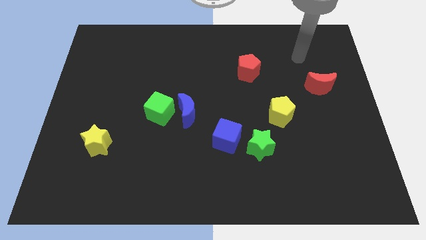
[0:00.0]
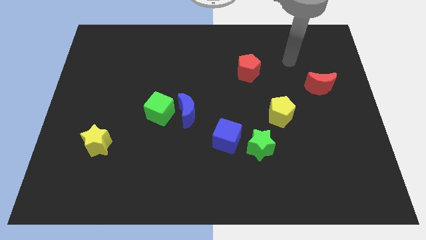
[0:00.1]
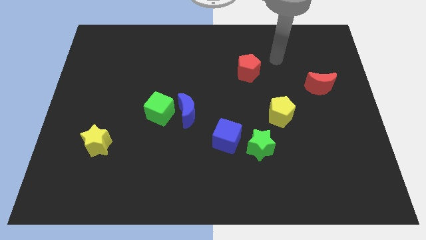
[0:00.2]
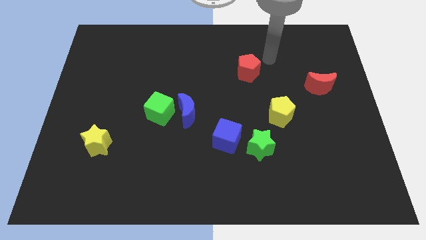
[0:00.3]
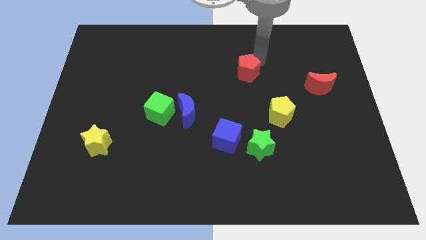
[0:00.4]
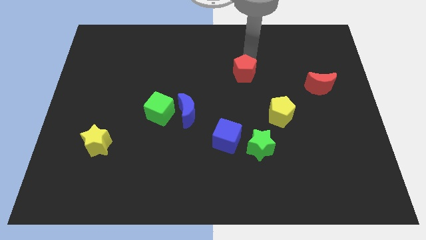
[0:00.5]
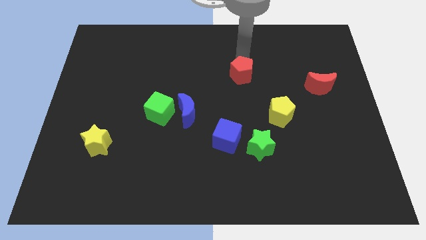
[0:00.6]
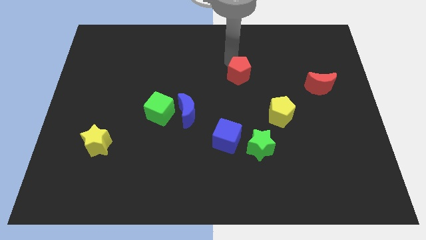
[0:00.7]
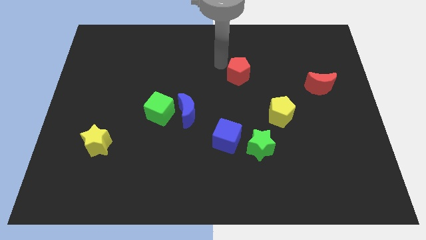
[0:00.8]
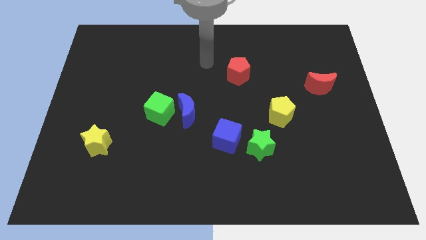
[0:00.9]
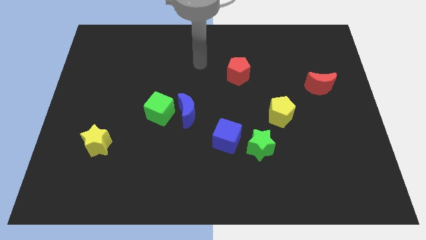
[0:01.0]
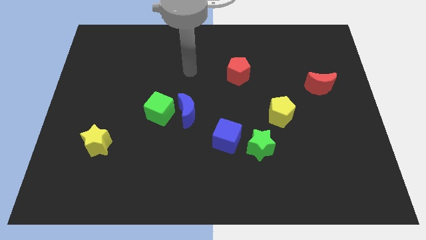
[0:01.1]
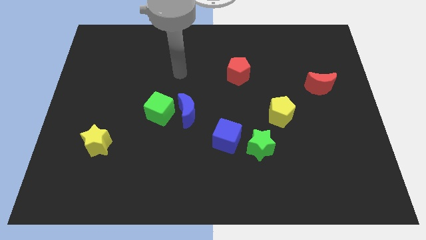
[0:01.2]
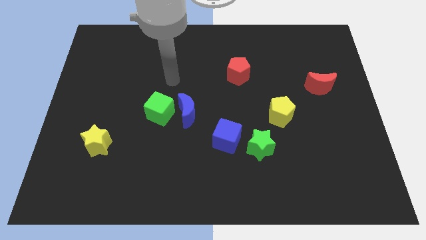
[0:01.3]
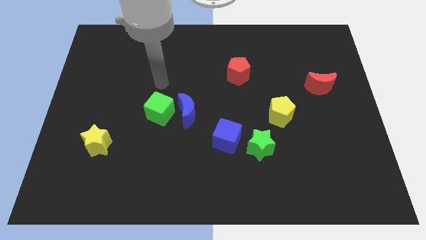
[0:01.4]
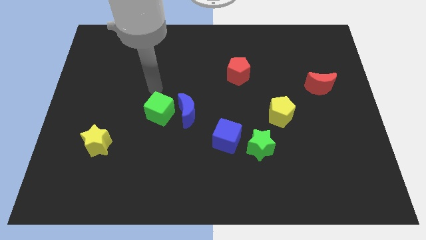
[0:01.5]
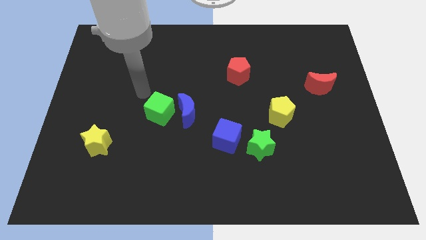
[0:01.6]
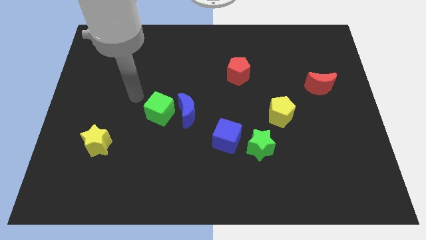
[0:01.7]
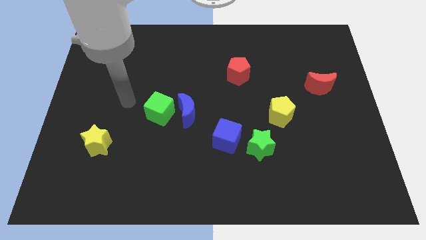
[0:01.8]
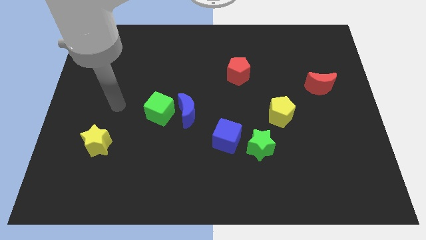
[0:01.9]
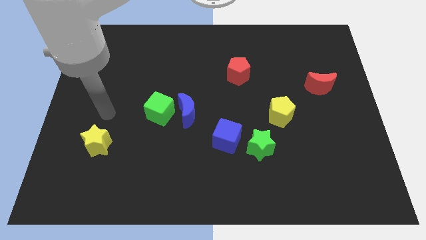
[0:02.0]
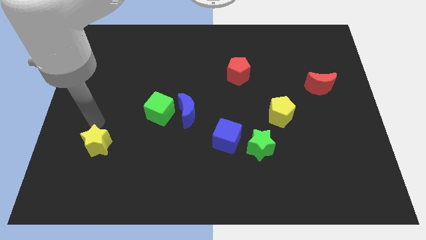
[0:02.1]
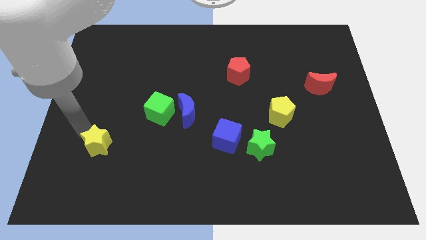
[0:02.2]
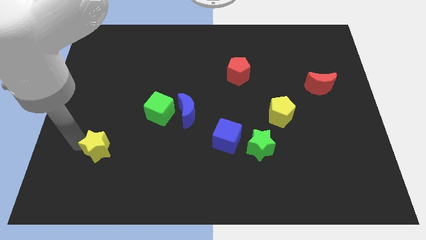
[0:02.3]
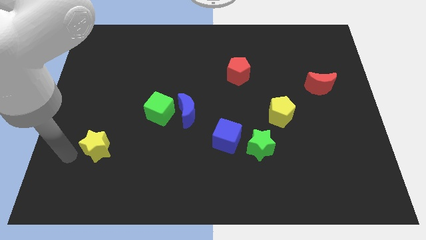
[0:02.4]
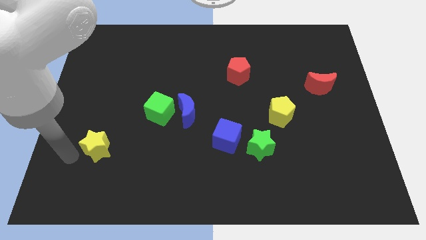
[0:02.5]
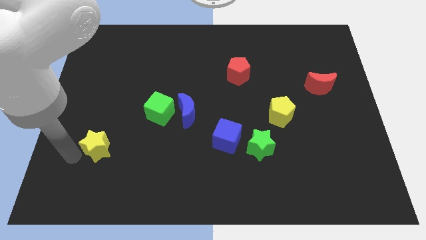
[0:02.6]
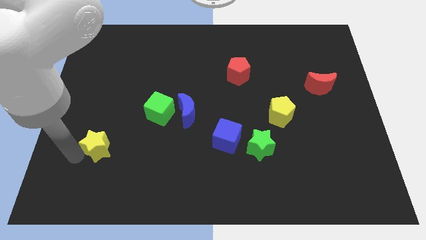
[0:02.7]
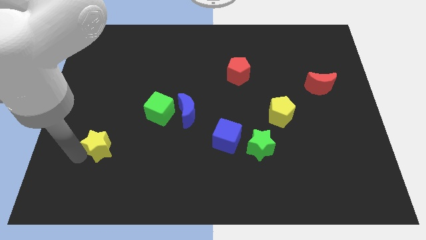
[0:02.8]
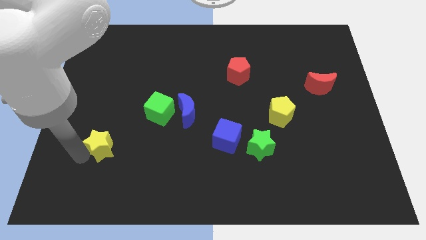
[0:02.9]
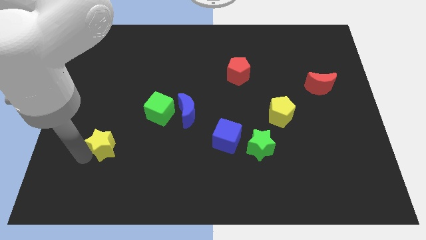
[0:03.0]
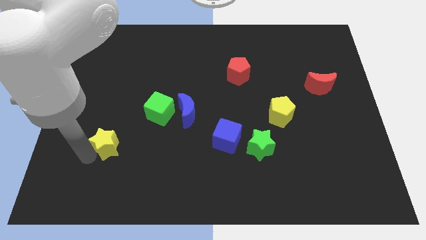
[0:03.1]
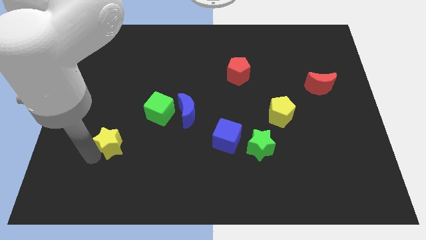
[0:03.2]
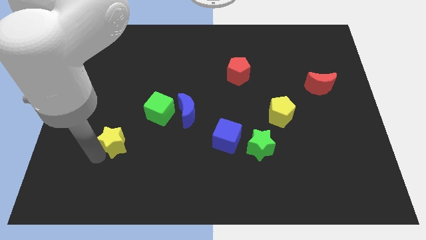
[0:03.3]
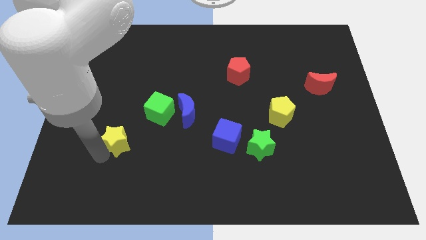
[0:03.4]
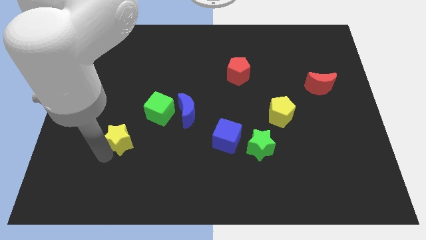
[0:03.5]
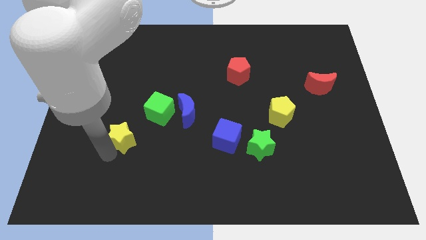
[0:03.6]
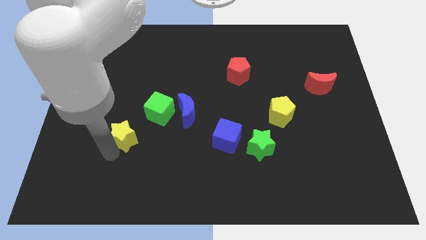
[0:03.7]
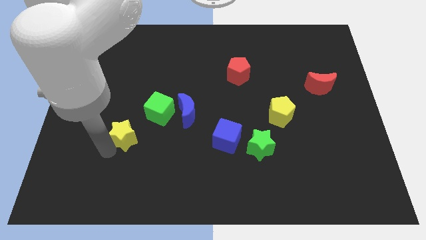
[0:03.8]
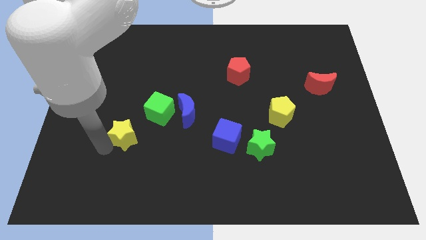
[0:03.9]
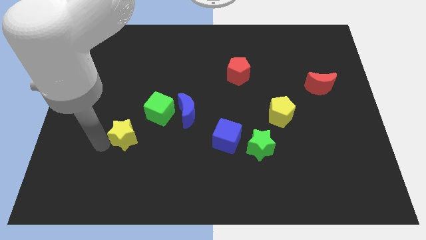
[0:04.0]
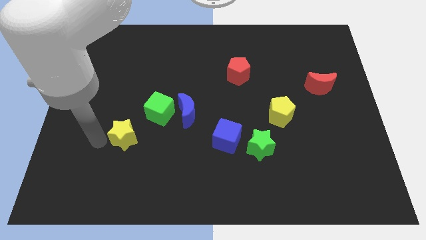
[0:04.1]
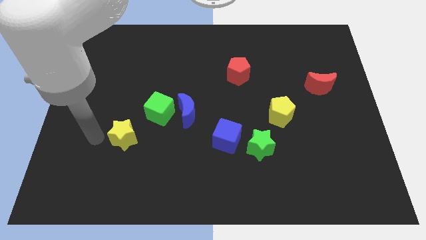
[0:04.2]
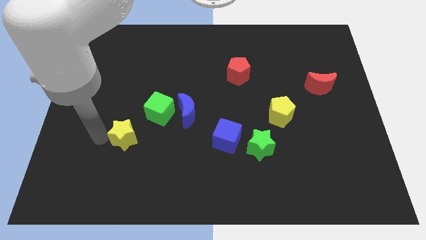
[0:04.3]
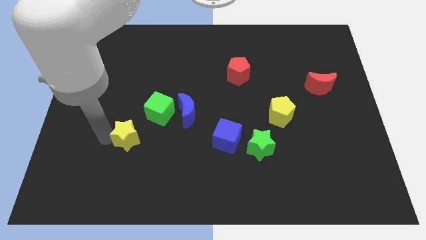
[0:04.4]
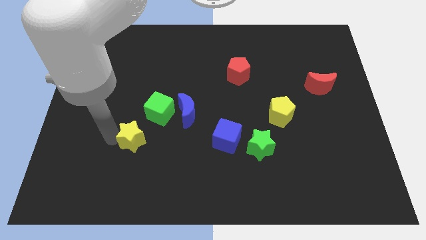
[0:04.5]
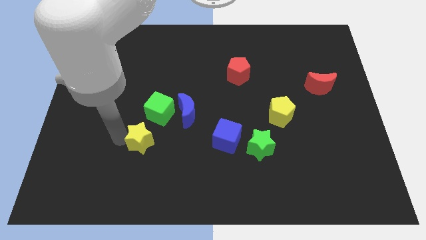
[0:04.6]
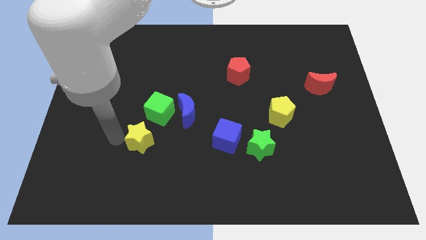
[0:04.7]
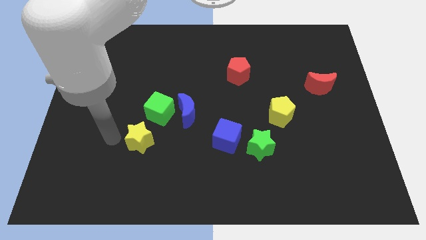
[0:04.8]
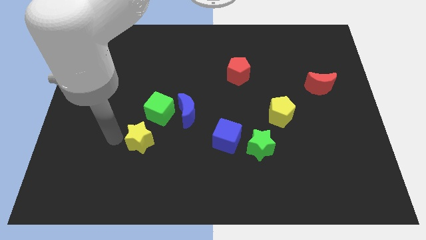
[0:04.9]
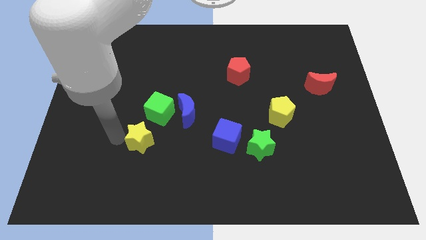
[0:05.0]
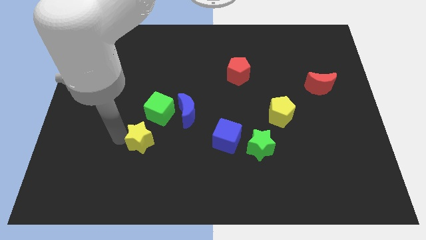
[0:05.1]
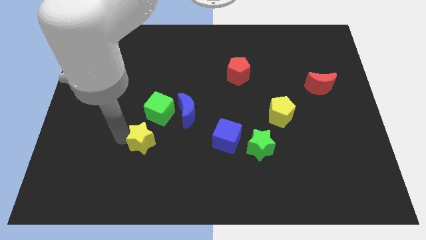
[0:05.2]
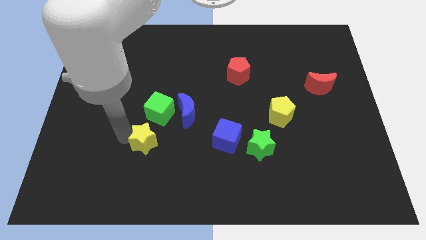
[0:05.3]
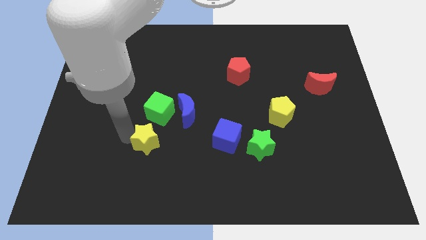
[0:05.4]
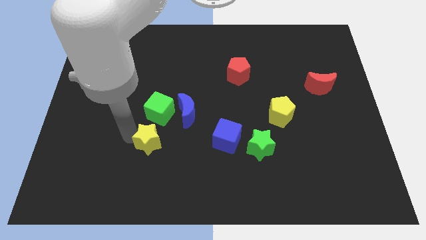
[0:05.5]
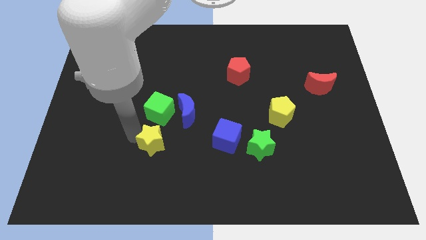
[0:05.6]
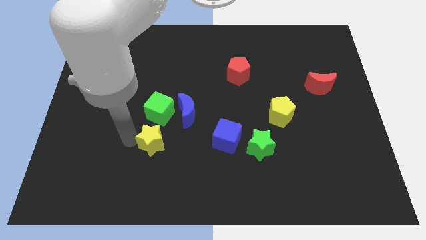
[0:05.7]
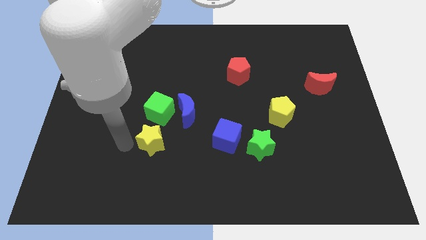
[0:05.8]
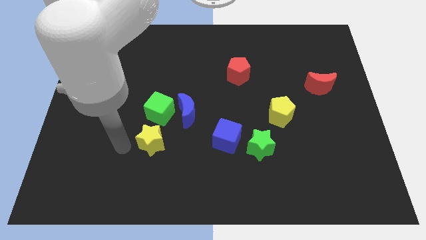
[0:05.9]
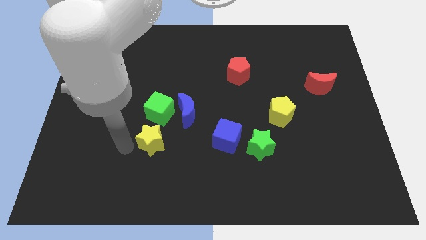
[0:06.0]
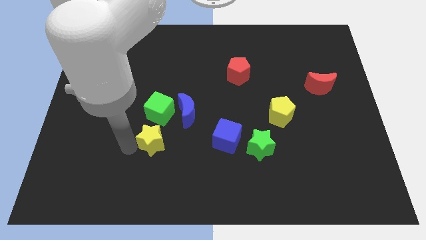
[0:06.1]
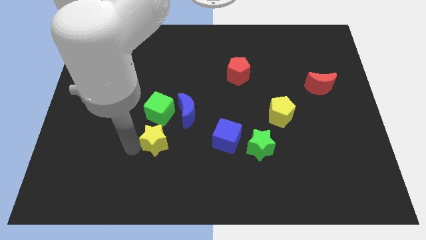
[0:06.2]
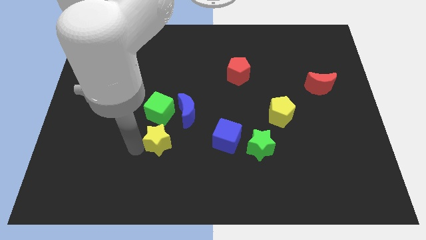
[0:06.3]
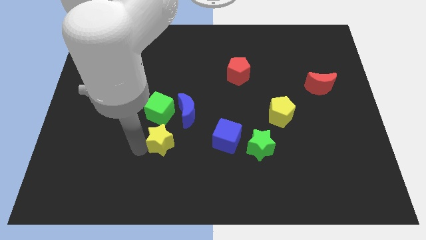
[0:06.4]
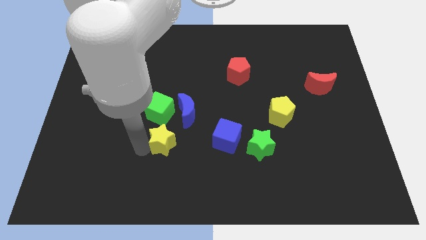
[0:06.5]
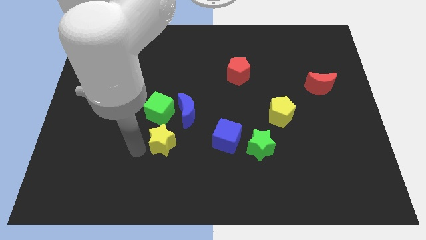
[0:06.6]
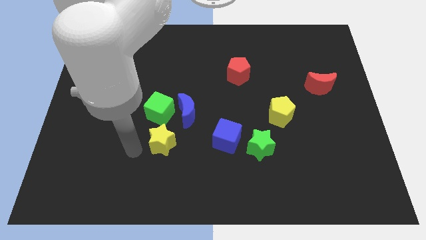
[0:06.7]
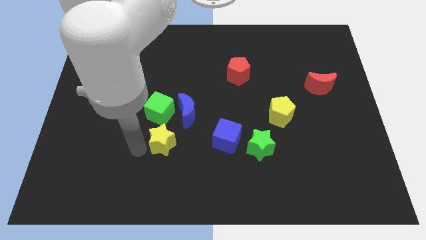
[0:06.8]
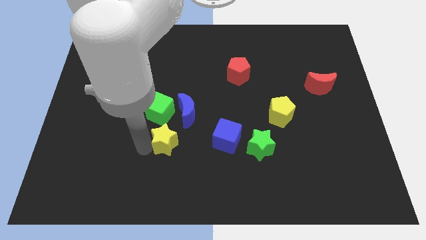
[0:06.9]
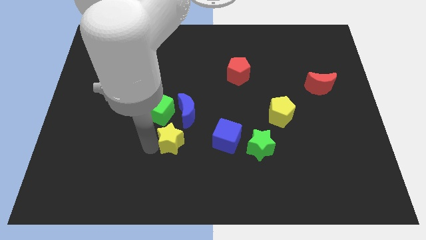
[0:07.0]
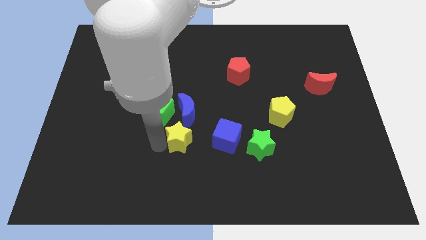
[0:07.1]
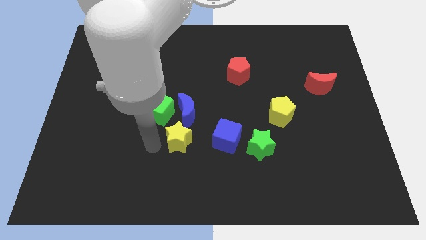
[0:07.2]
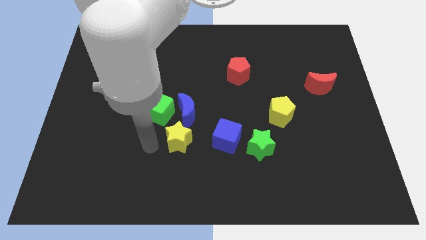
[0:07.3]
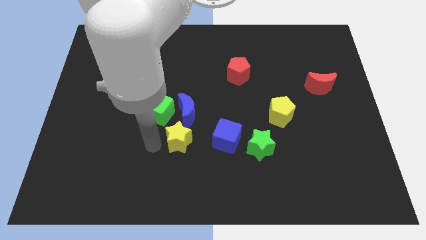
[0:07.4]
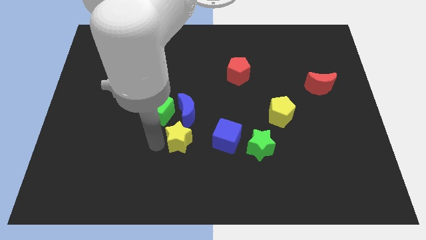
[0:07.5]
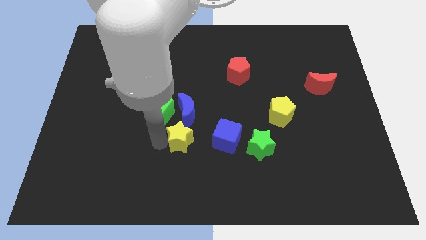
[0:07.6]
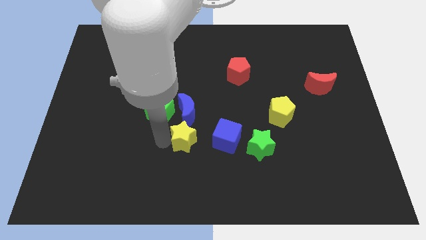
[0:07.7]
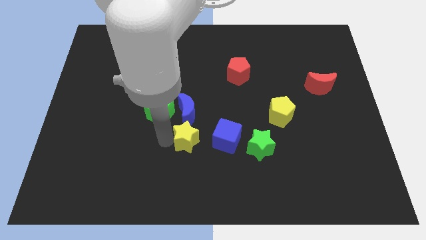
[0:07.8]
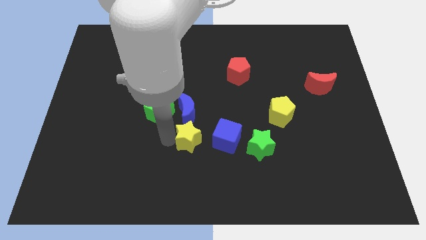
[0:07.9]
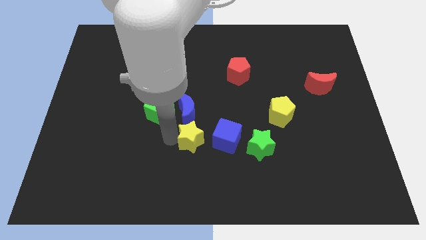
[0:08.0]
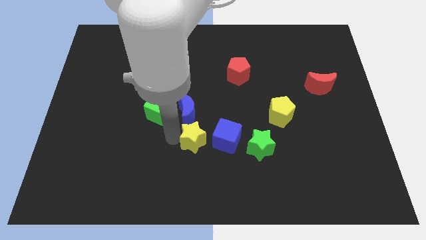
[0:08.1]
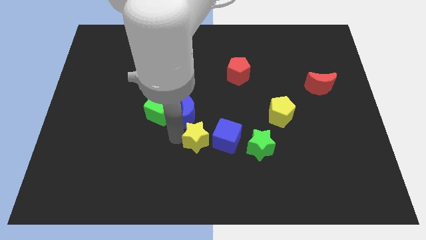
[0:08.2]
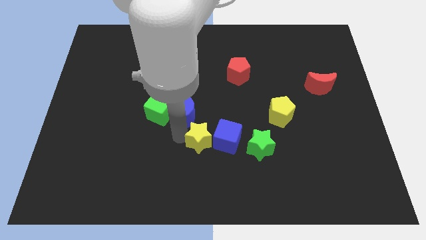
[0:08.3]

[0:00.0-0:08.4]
put the yellow star to the blue cube

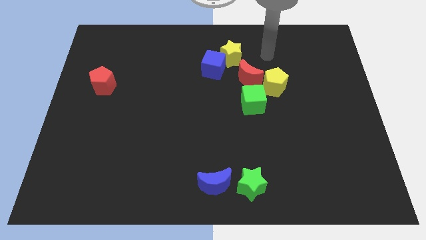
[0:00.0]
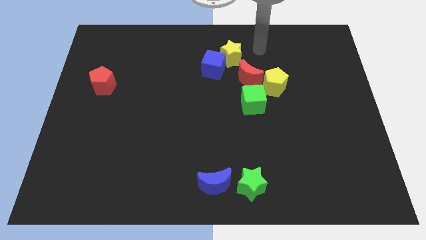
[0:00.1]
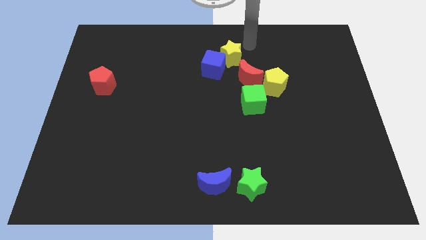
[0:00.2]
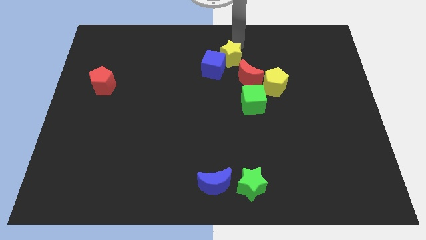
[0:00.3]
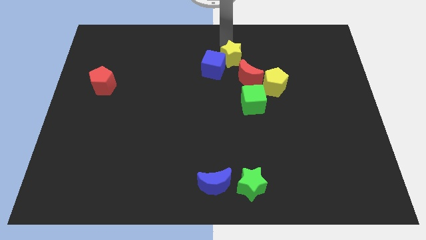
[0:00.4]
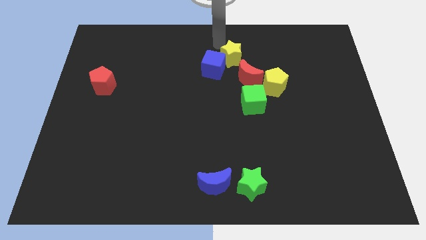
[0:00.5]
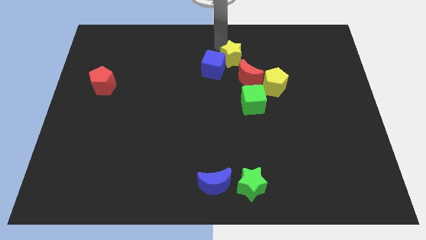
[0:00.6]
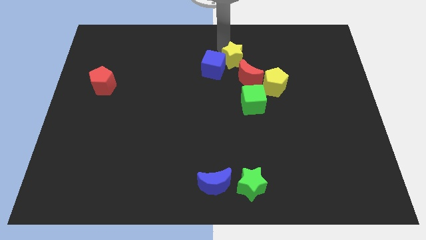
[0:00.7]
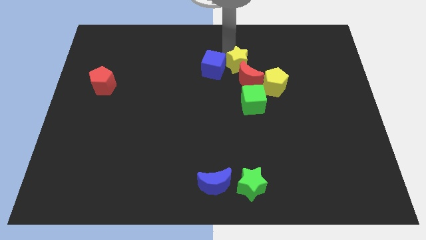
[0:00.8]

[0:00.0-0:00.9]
slide the yellow star close to the red moon
